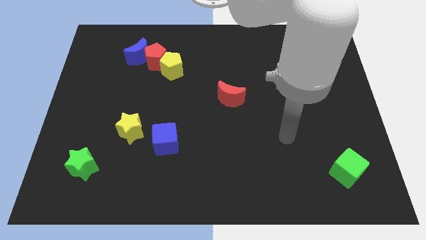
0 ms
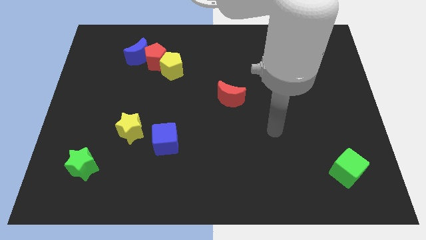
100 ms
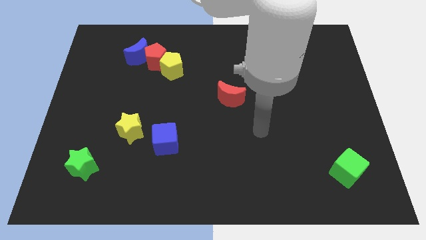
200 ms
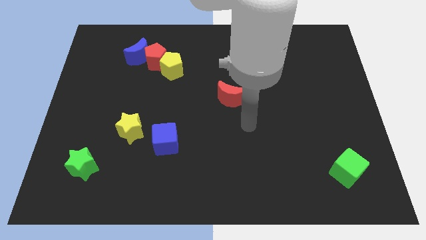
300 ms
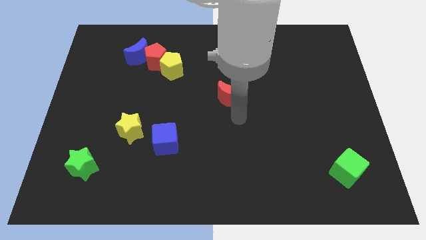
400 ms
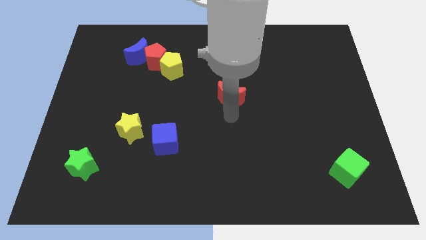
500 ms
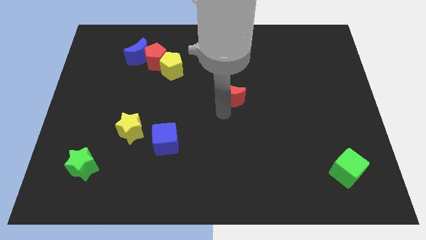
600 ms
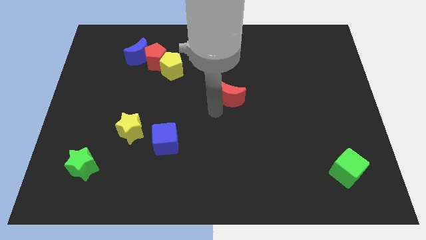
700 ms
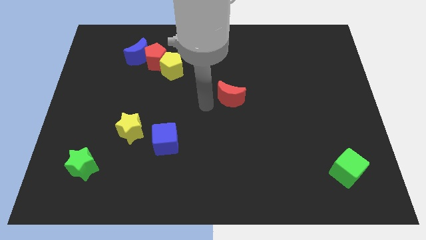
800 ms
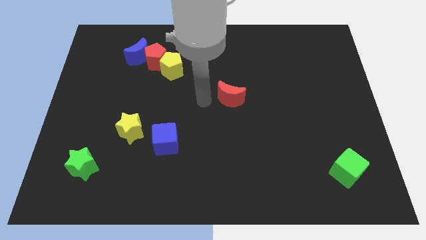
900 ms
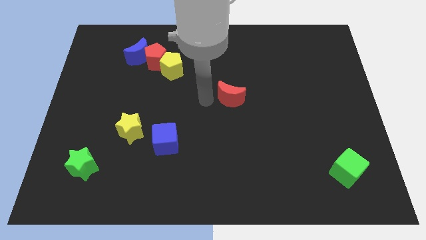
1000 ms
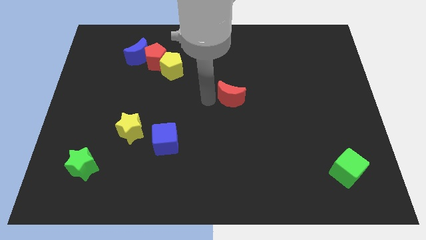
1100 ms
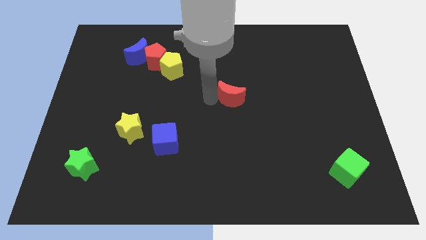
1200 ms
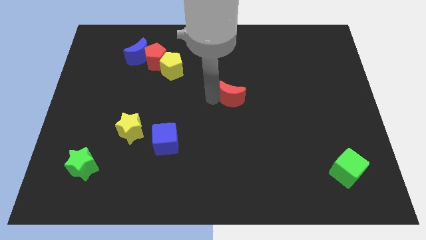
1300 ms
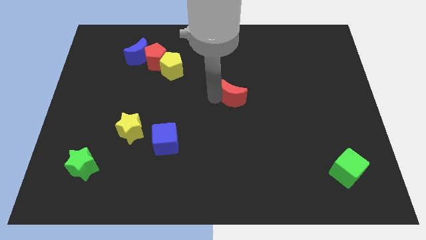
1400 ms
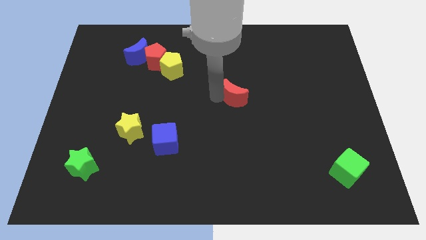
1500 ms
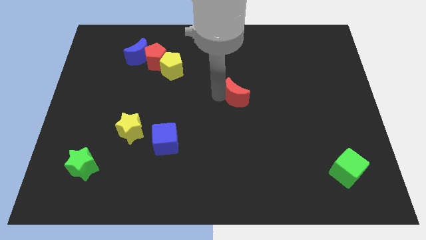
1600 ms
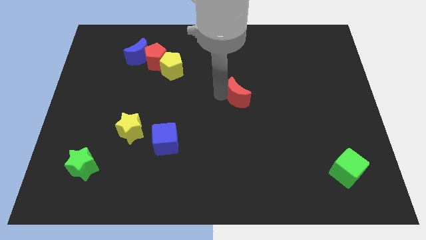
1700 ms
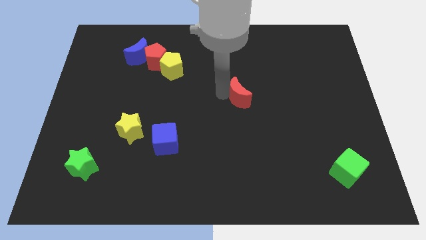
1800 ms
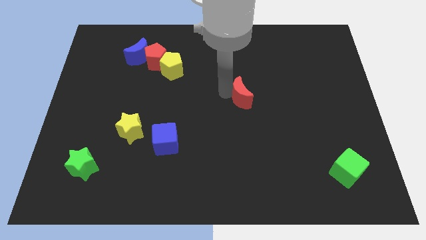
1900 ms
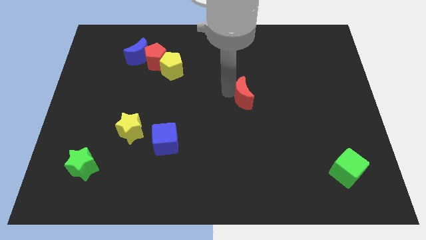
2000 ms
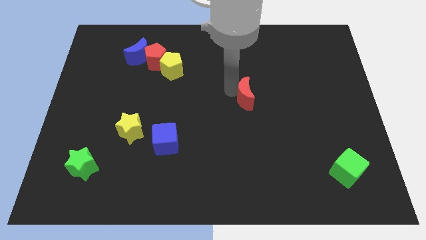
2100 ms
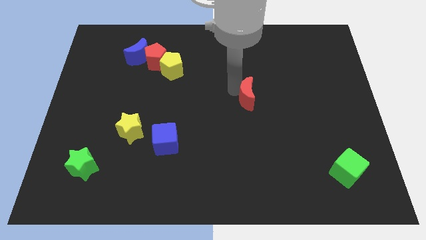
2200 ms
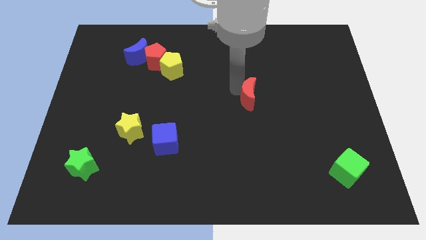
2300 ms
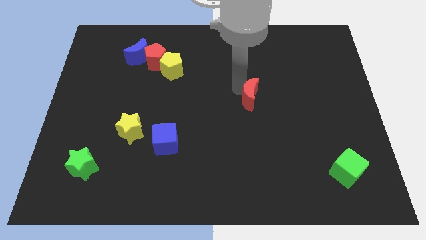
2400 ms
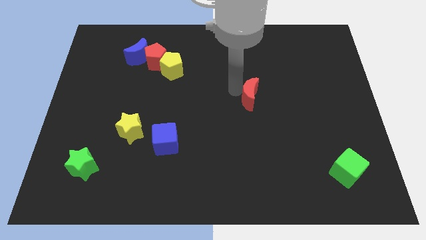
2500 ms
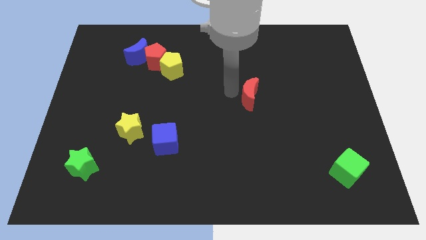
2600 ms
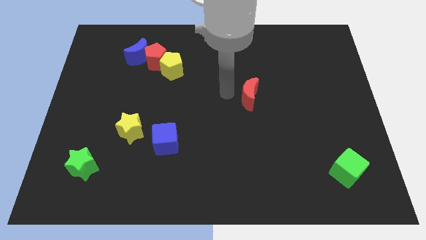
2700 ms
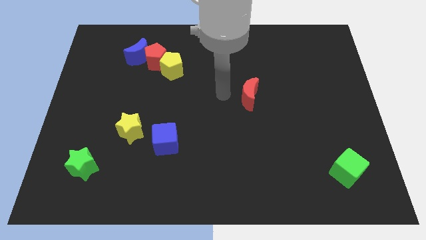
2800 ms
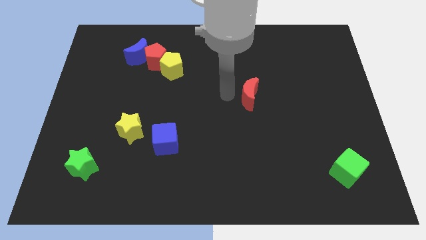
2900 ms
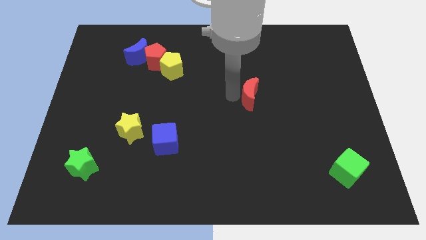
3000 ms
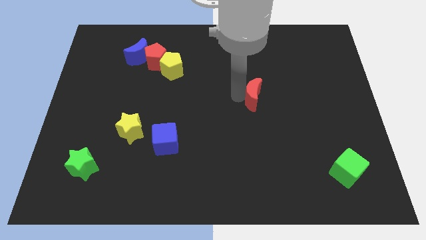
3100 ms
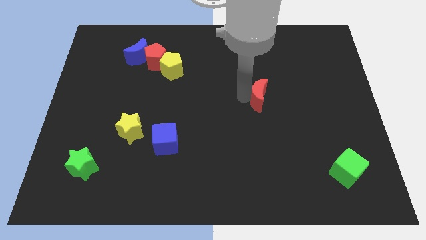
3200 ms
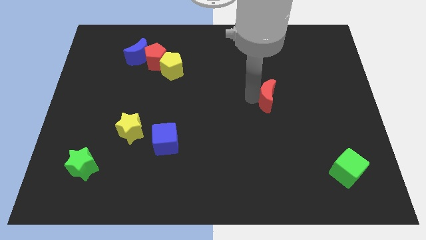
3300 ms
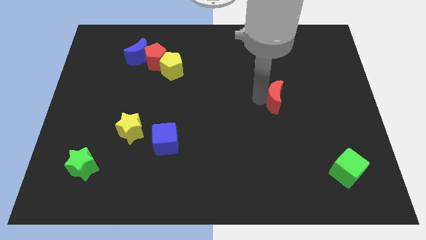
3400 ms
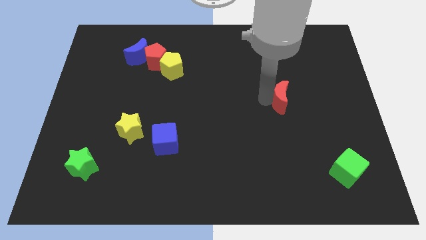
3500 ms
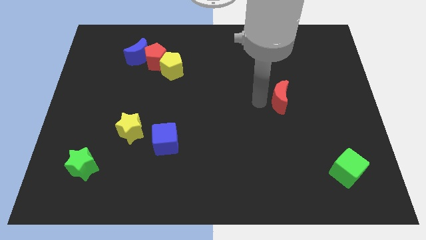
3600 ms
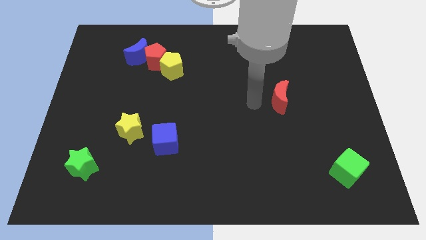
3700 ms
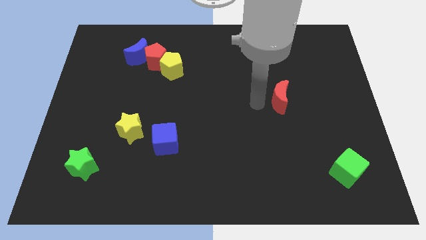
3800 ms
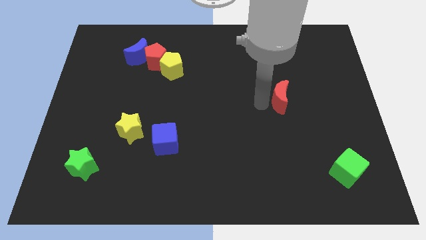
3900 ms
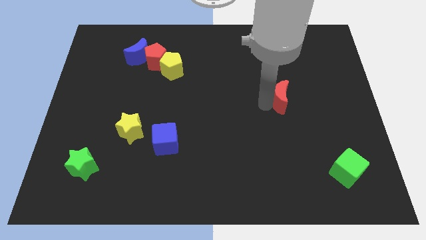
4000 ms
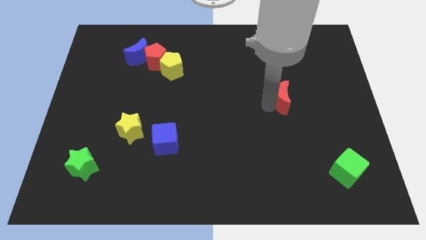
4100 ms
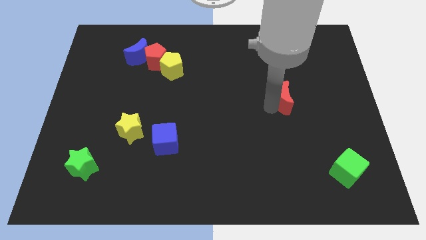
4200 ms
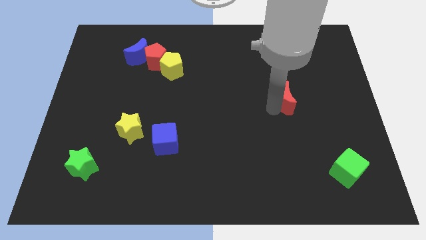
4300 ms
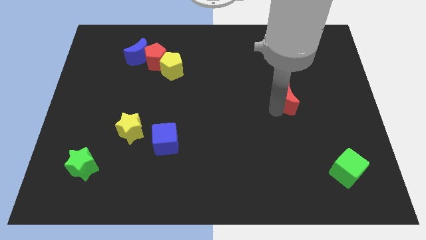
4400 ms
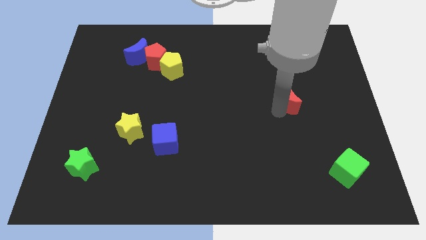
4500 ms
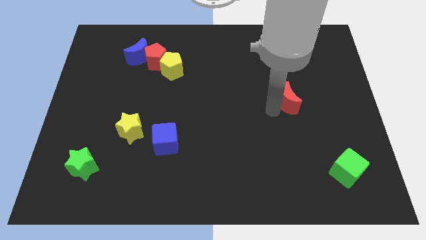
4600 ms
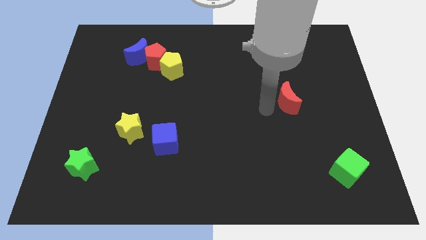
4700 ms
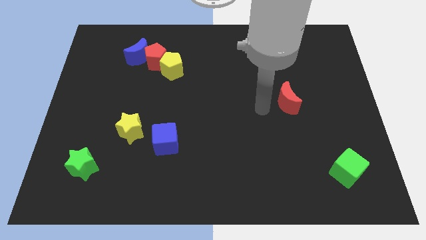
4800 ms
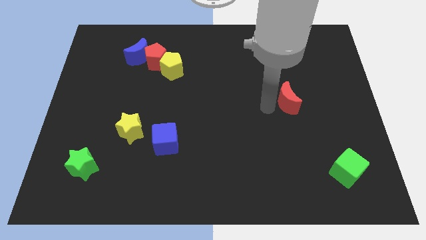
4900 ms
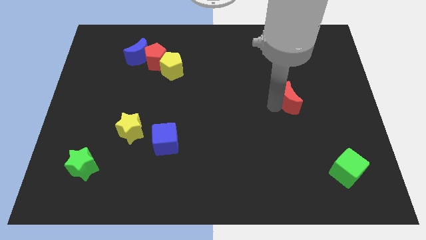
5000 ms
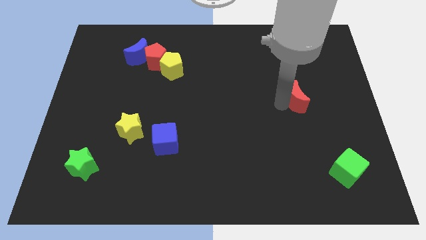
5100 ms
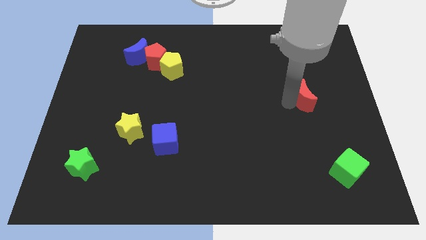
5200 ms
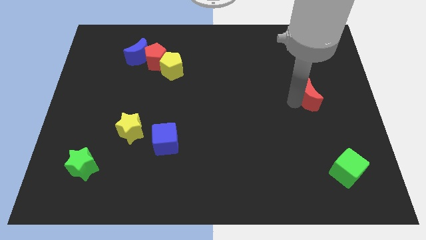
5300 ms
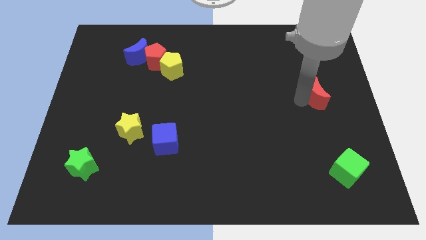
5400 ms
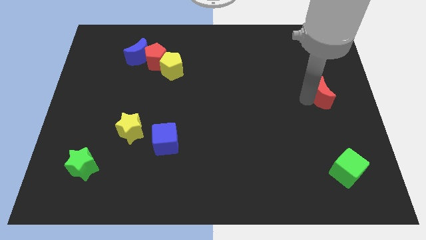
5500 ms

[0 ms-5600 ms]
push the red moon to the right side of the board

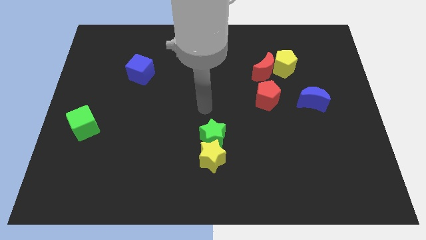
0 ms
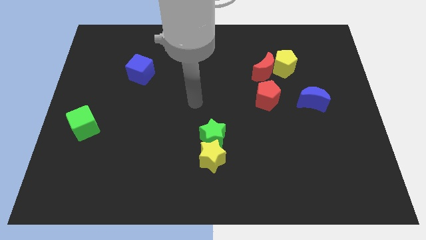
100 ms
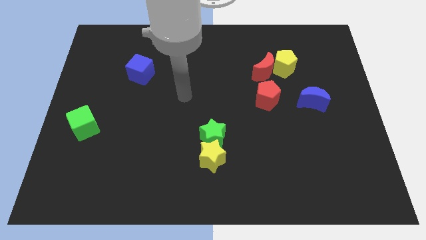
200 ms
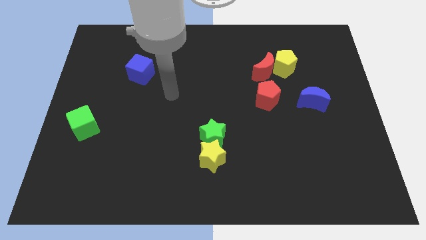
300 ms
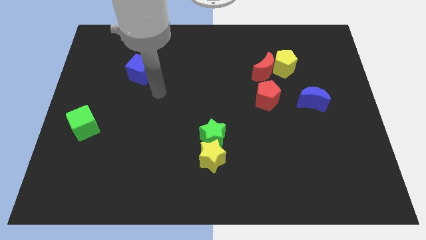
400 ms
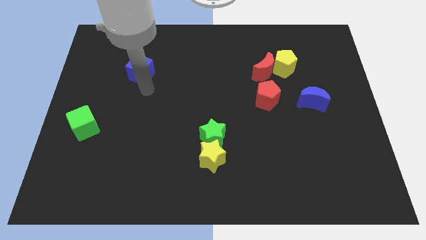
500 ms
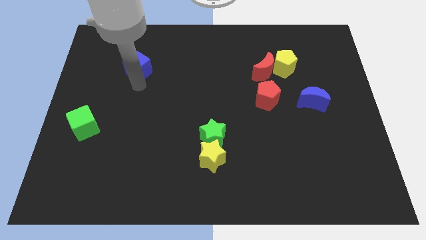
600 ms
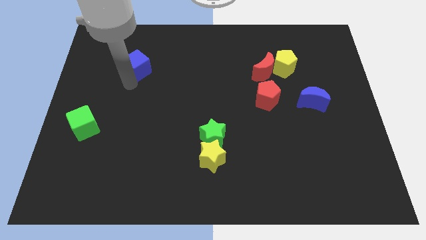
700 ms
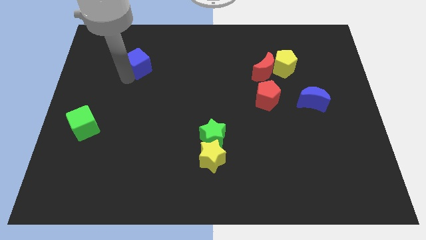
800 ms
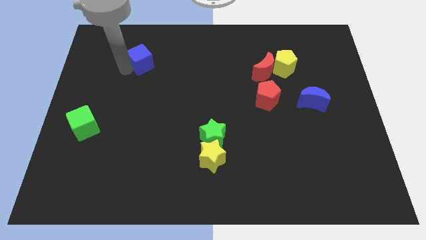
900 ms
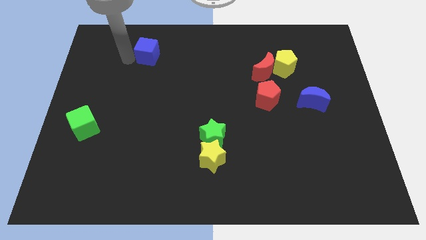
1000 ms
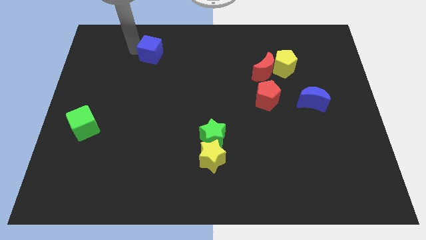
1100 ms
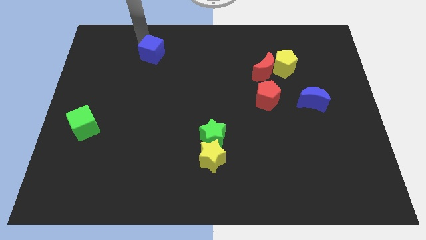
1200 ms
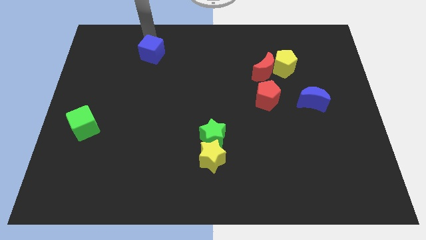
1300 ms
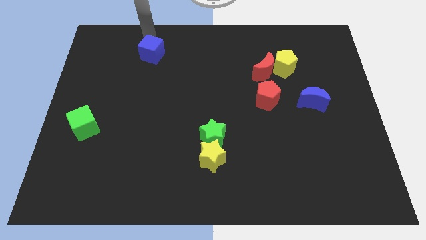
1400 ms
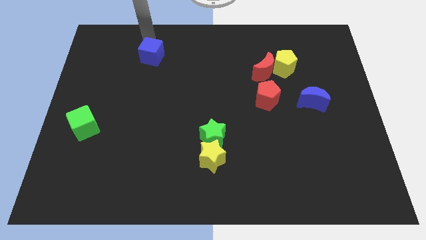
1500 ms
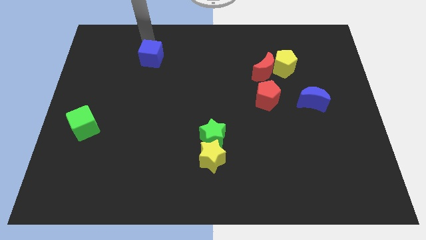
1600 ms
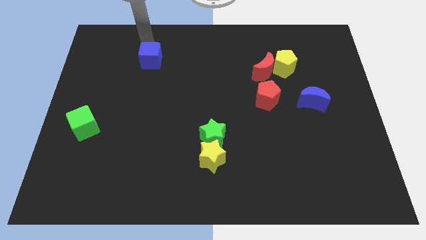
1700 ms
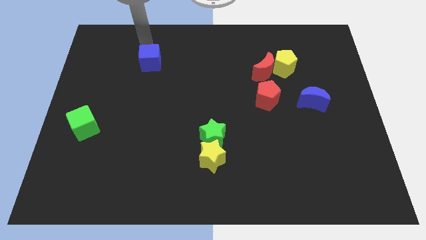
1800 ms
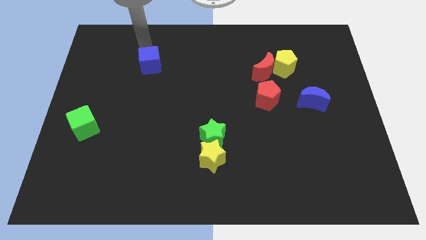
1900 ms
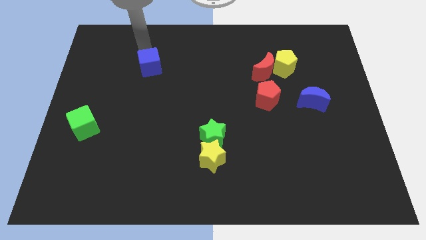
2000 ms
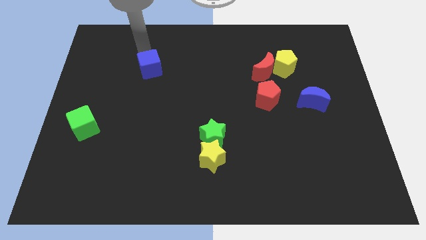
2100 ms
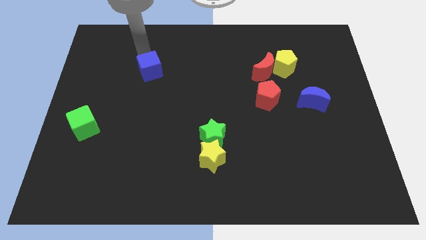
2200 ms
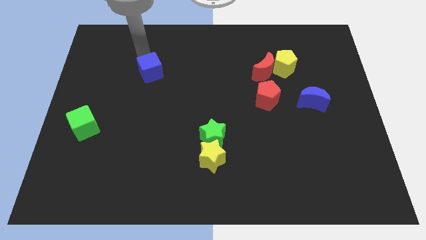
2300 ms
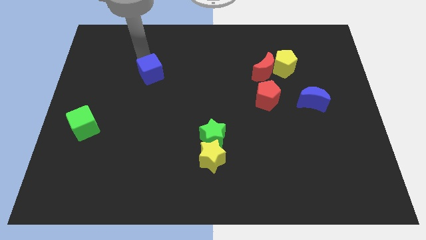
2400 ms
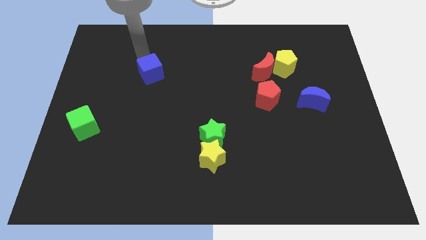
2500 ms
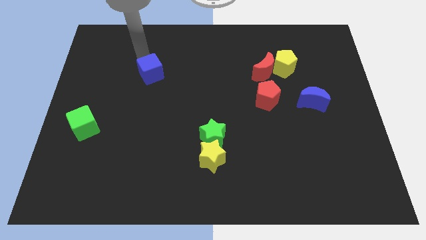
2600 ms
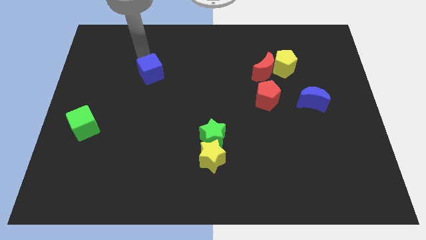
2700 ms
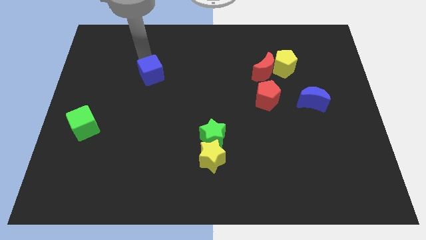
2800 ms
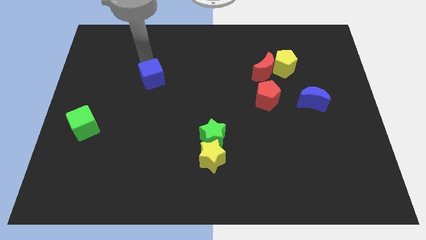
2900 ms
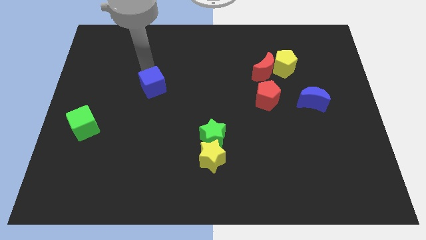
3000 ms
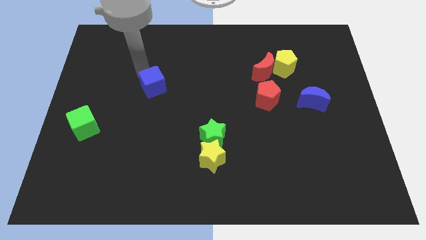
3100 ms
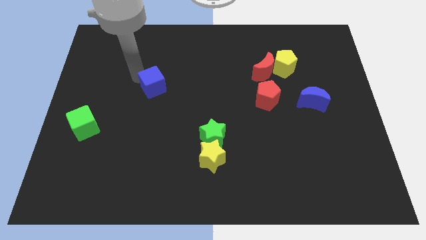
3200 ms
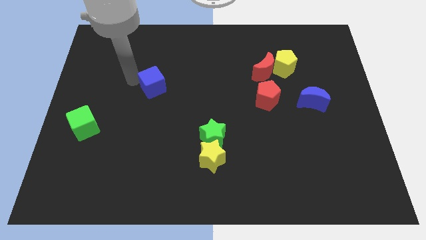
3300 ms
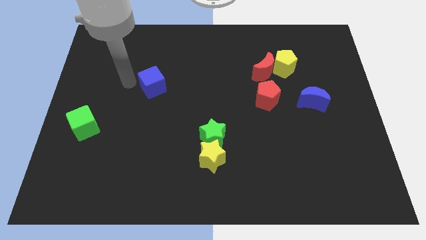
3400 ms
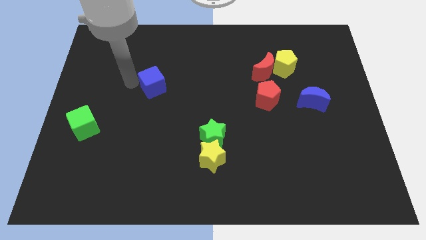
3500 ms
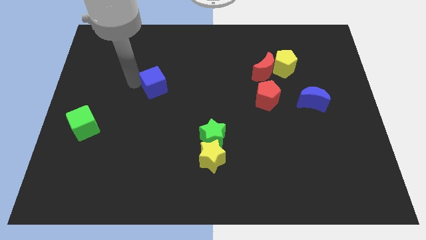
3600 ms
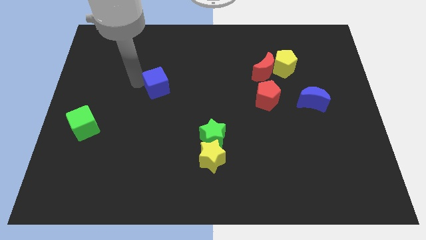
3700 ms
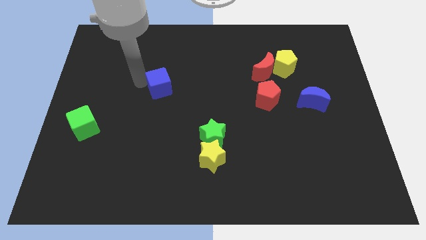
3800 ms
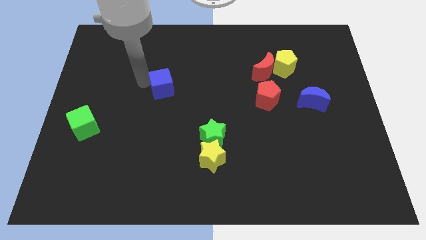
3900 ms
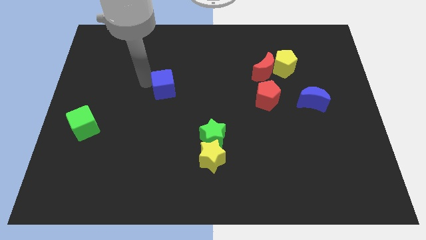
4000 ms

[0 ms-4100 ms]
push the blue cube to the center
